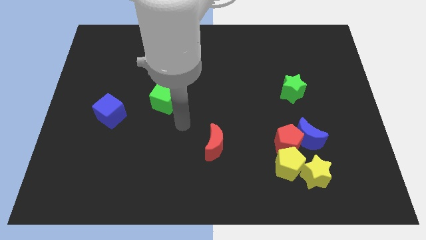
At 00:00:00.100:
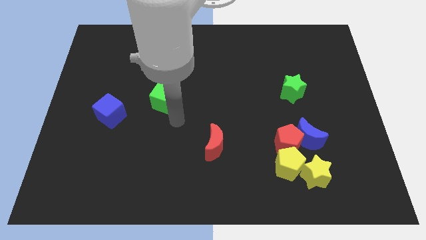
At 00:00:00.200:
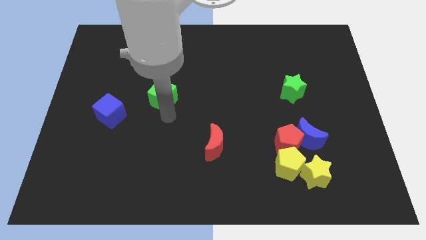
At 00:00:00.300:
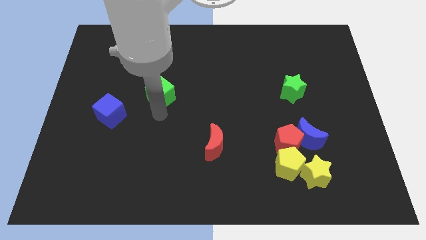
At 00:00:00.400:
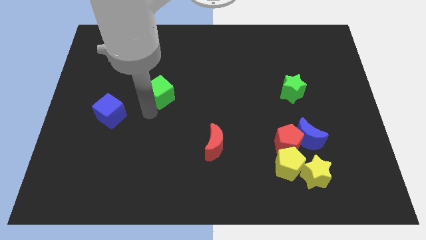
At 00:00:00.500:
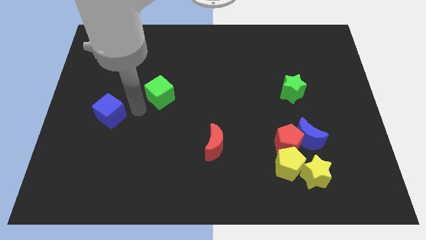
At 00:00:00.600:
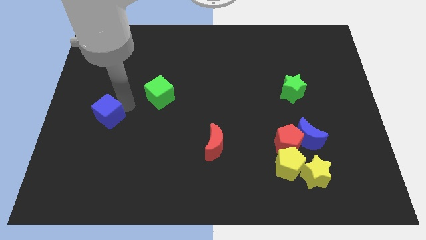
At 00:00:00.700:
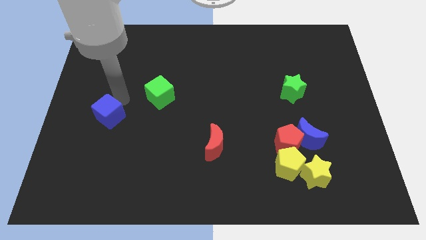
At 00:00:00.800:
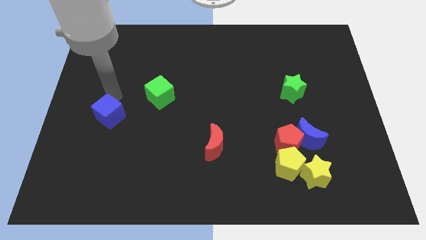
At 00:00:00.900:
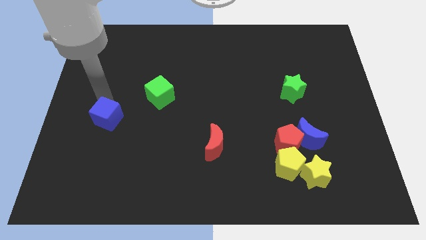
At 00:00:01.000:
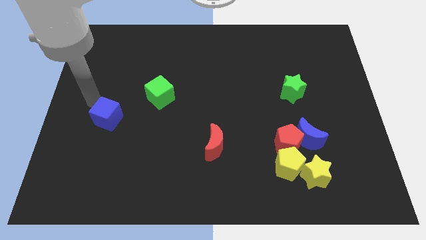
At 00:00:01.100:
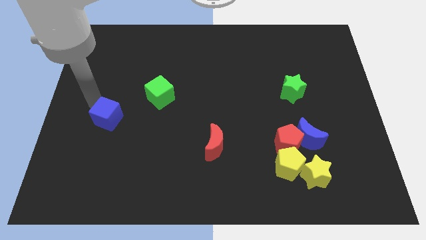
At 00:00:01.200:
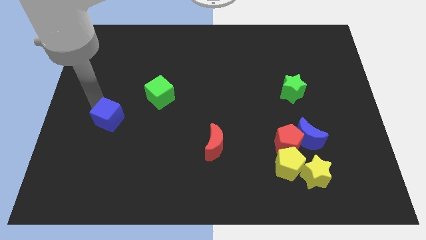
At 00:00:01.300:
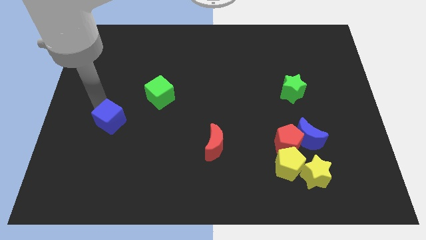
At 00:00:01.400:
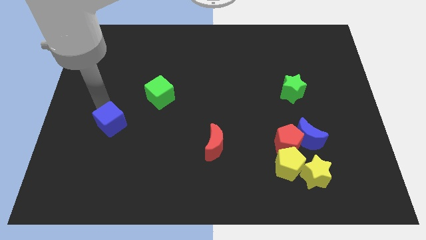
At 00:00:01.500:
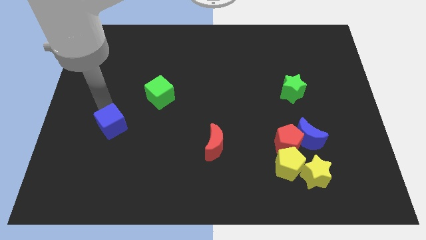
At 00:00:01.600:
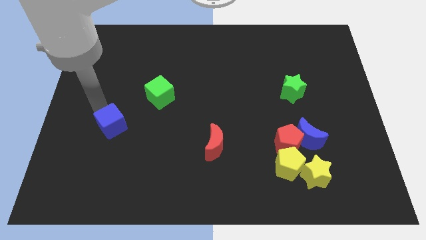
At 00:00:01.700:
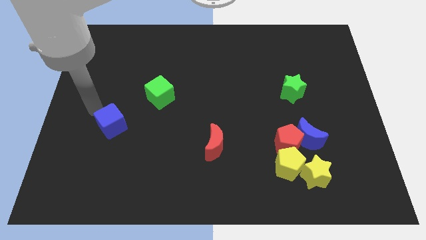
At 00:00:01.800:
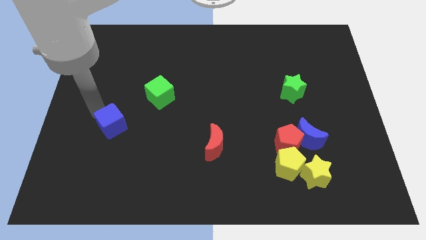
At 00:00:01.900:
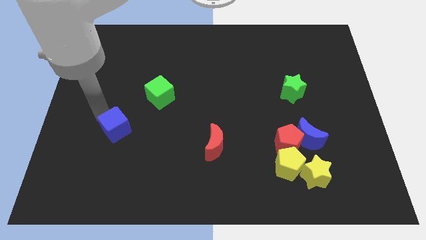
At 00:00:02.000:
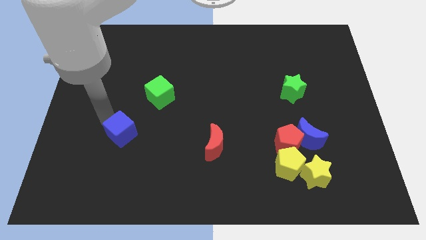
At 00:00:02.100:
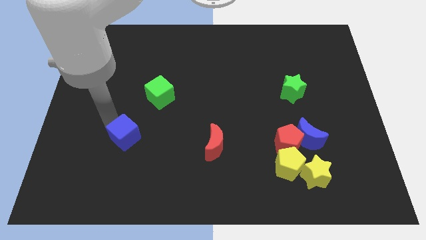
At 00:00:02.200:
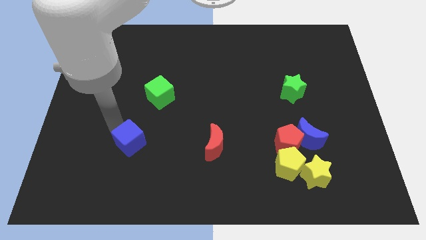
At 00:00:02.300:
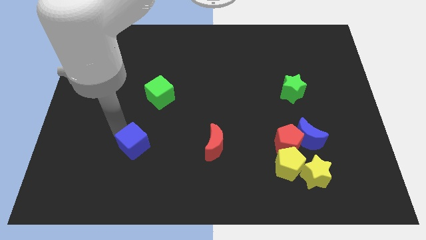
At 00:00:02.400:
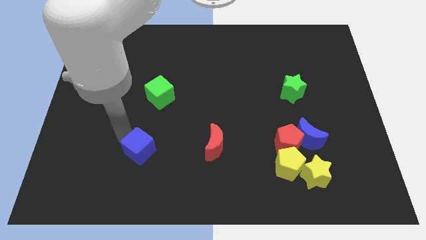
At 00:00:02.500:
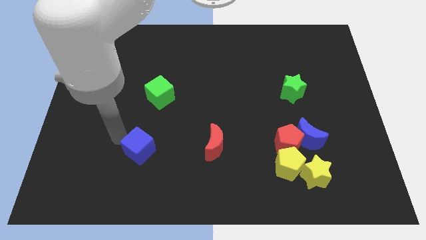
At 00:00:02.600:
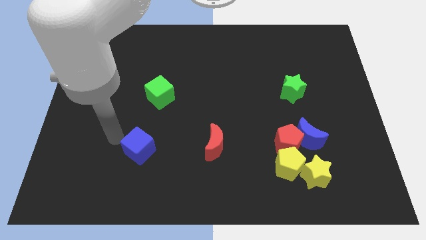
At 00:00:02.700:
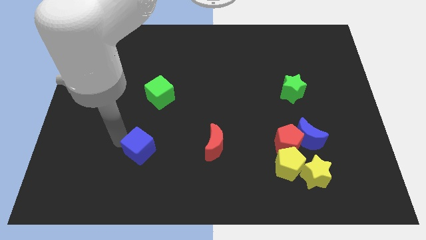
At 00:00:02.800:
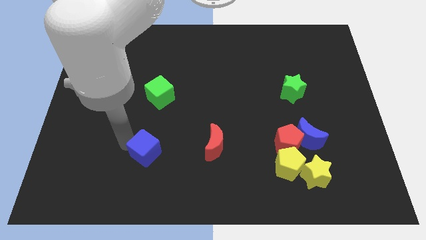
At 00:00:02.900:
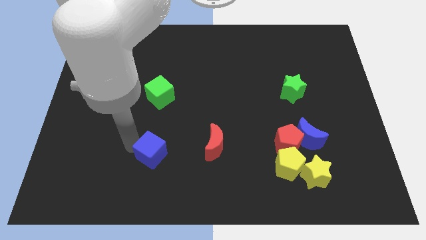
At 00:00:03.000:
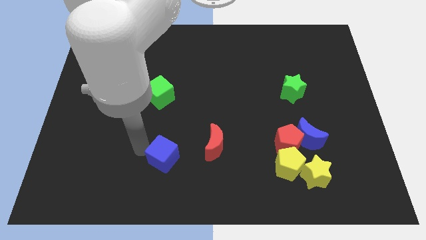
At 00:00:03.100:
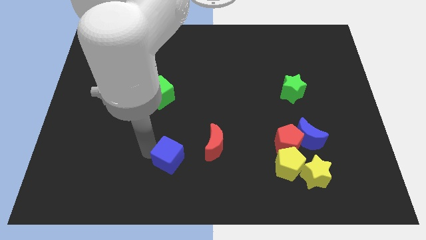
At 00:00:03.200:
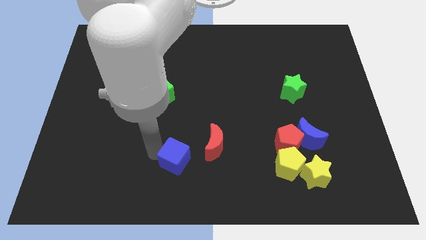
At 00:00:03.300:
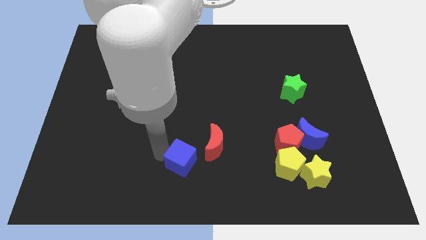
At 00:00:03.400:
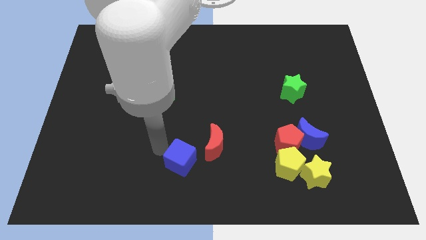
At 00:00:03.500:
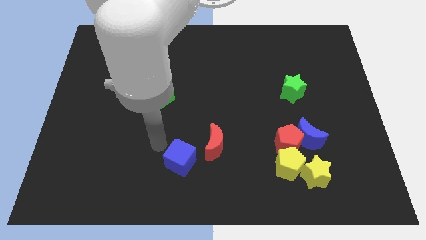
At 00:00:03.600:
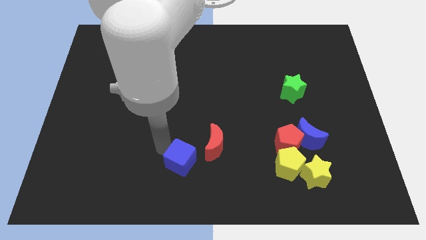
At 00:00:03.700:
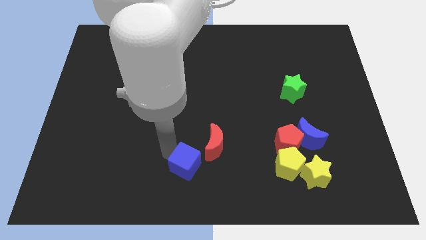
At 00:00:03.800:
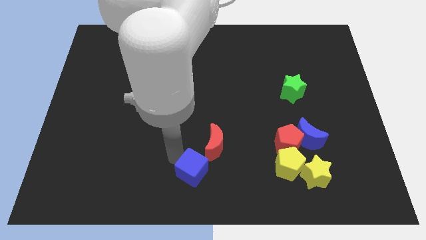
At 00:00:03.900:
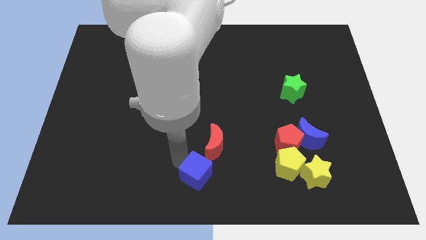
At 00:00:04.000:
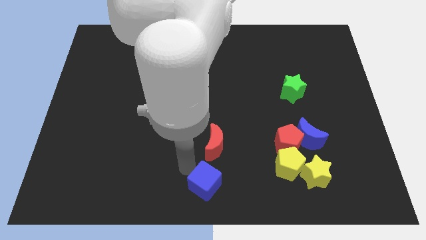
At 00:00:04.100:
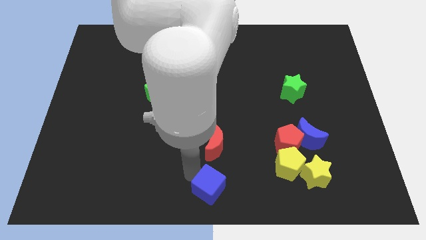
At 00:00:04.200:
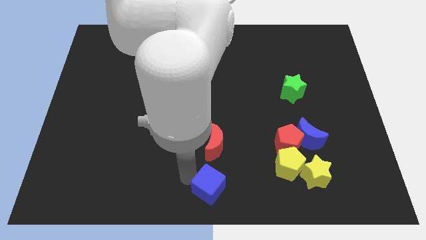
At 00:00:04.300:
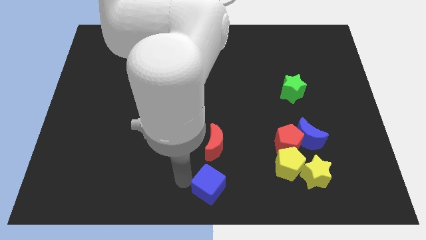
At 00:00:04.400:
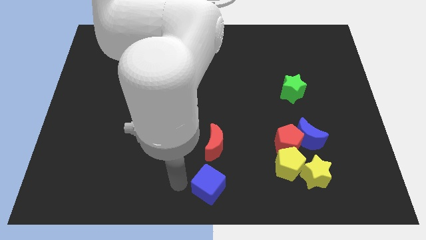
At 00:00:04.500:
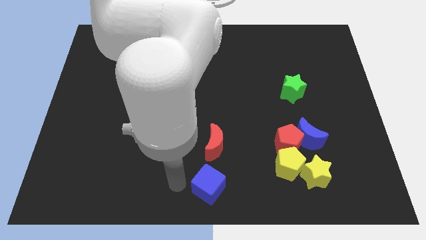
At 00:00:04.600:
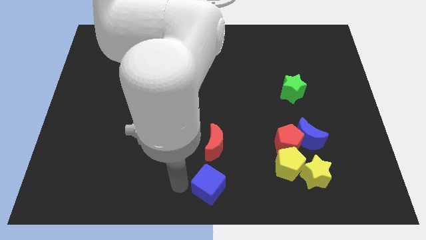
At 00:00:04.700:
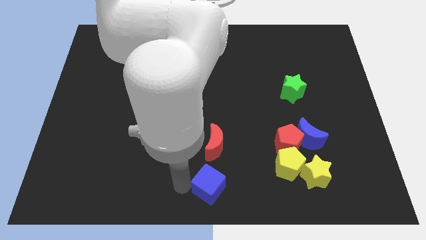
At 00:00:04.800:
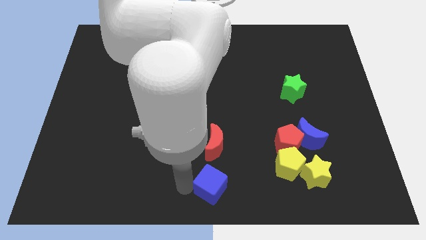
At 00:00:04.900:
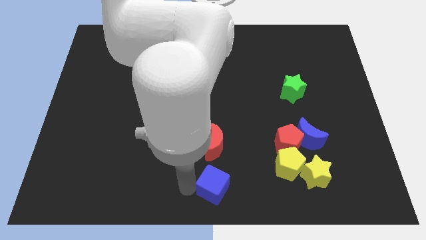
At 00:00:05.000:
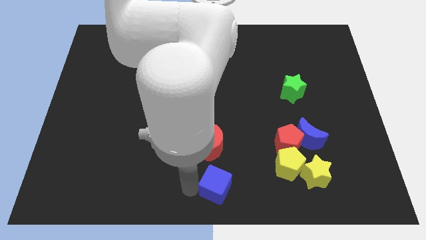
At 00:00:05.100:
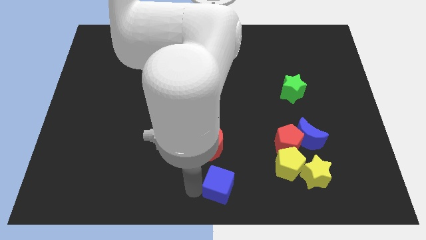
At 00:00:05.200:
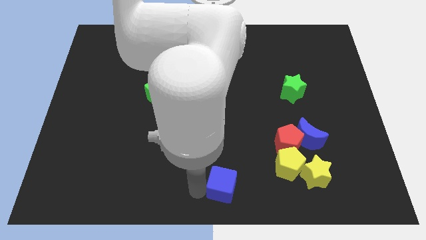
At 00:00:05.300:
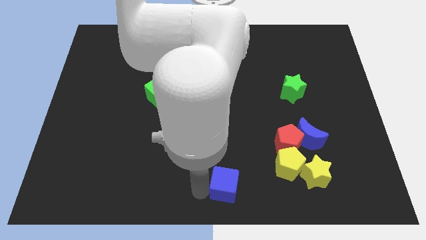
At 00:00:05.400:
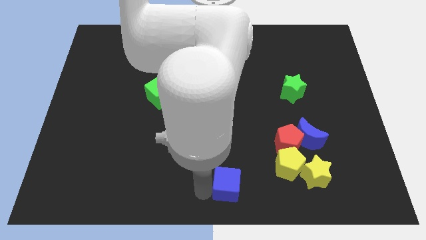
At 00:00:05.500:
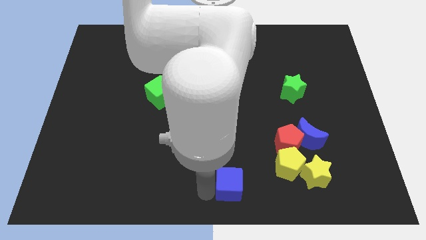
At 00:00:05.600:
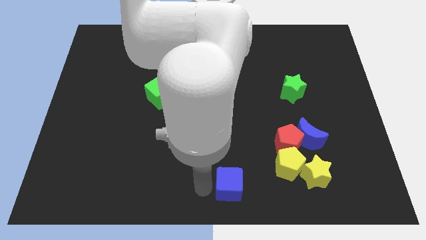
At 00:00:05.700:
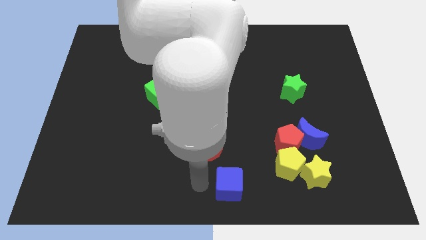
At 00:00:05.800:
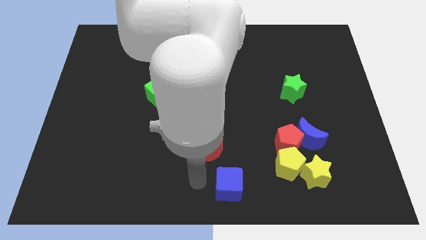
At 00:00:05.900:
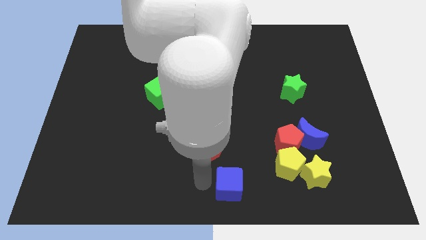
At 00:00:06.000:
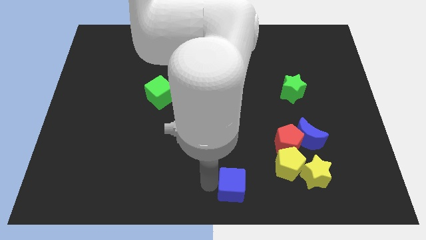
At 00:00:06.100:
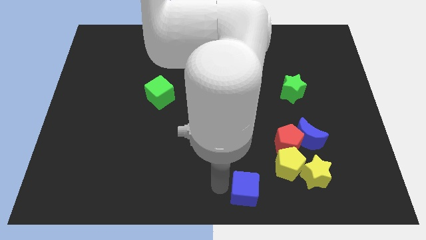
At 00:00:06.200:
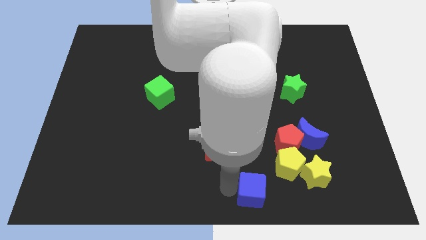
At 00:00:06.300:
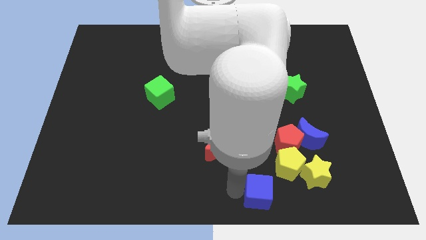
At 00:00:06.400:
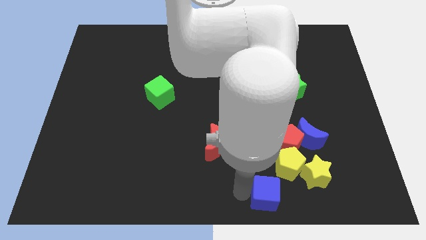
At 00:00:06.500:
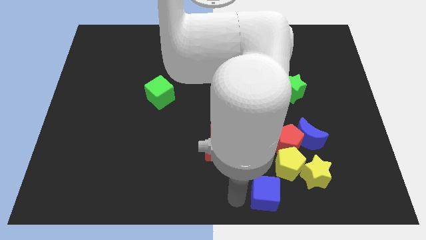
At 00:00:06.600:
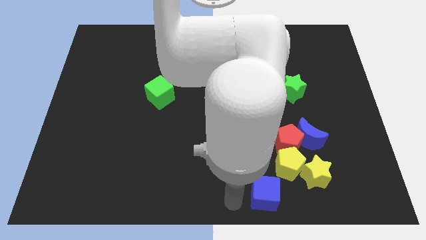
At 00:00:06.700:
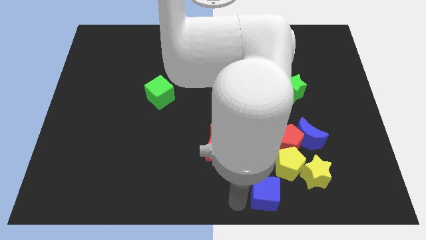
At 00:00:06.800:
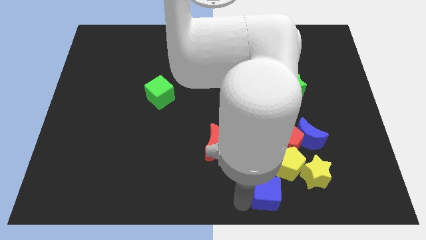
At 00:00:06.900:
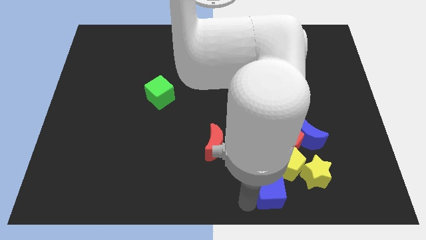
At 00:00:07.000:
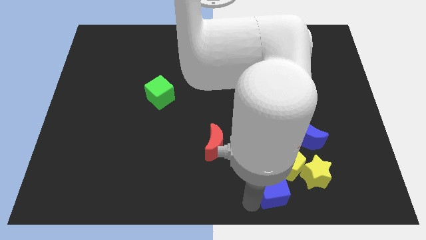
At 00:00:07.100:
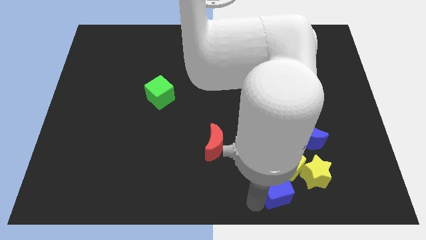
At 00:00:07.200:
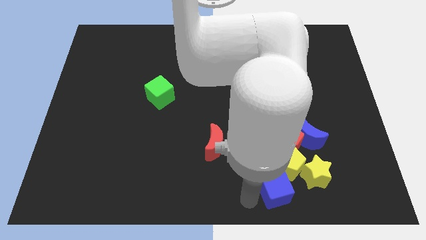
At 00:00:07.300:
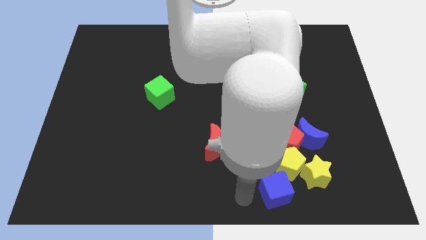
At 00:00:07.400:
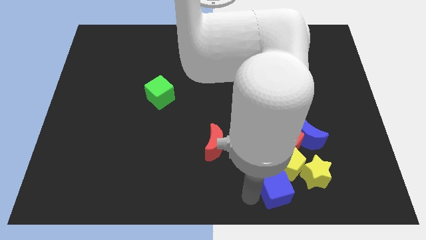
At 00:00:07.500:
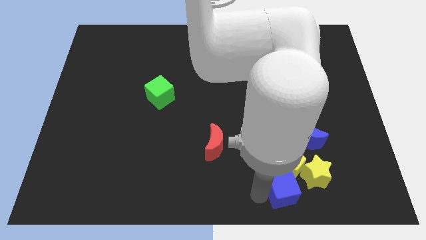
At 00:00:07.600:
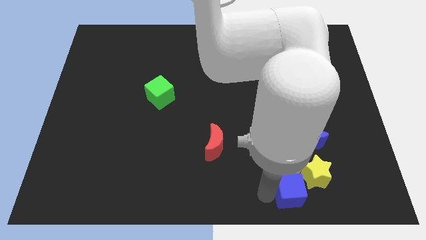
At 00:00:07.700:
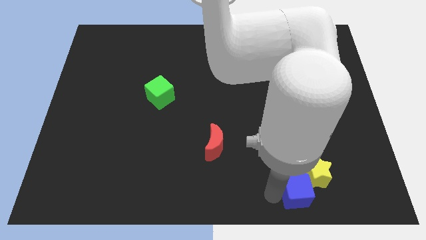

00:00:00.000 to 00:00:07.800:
push the blue cube next to the yellow star
